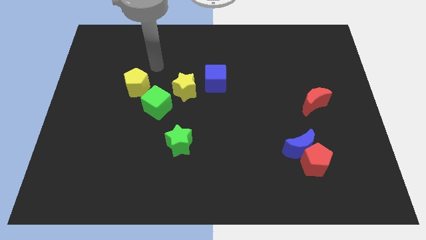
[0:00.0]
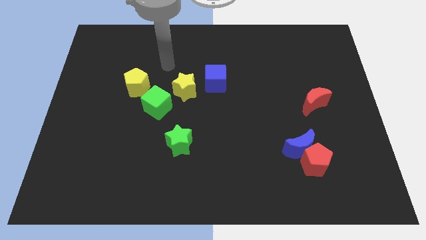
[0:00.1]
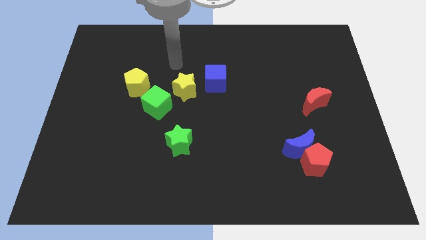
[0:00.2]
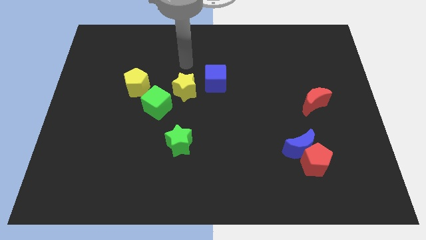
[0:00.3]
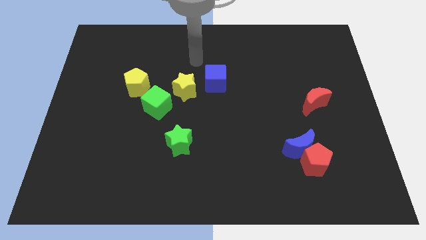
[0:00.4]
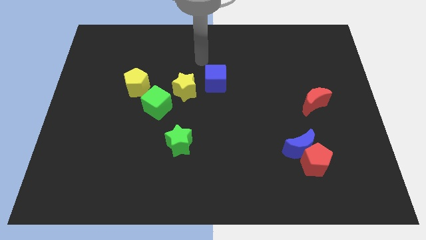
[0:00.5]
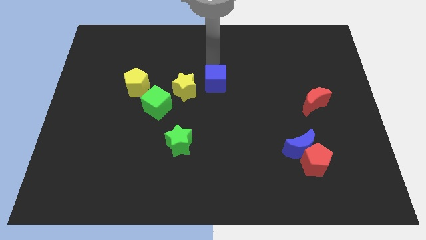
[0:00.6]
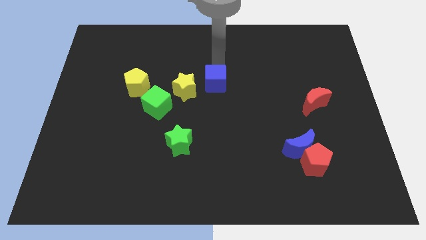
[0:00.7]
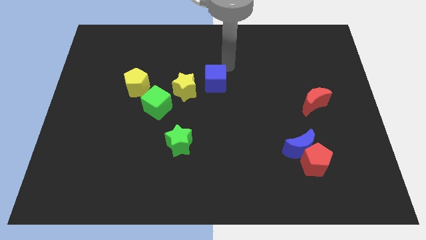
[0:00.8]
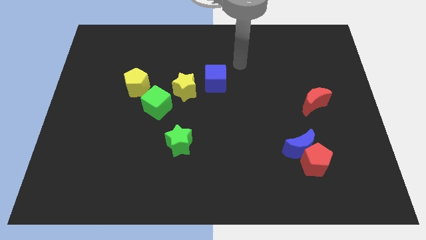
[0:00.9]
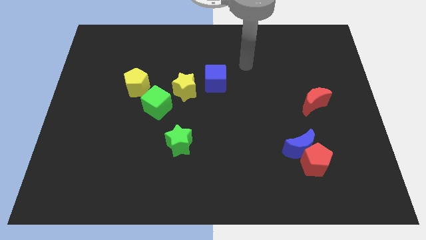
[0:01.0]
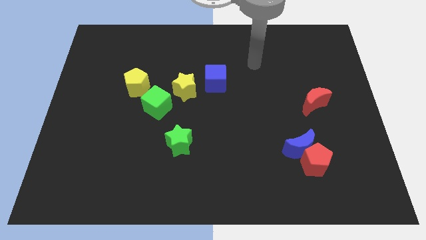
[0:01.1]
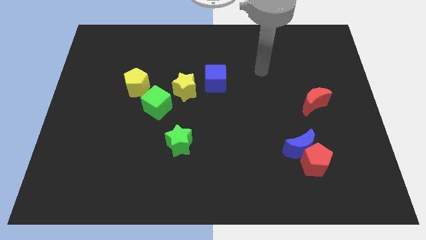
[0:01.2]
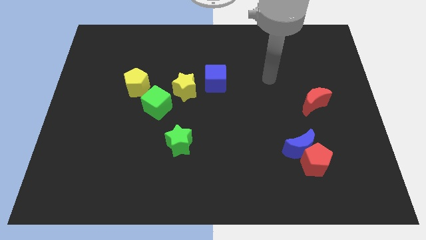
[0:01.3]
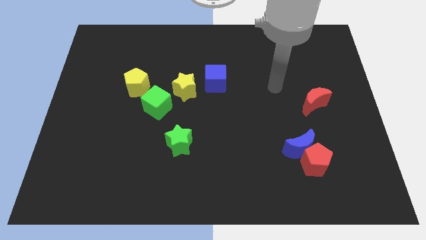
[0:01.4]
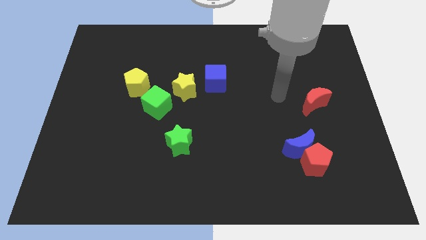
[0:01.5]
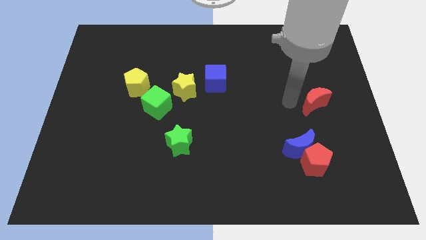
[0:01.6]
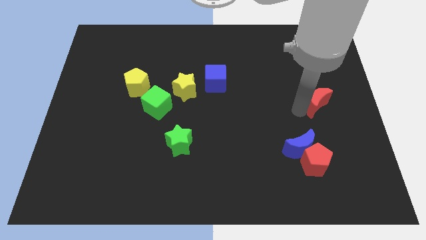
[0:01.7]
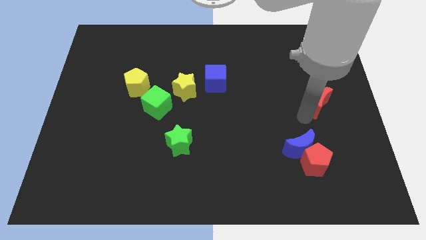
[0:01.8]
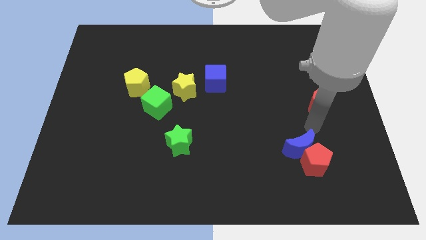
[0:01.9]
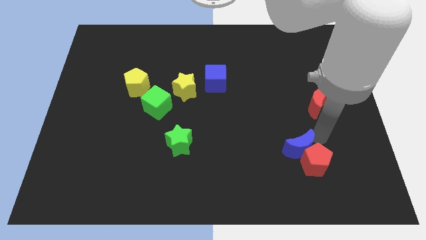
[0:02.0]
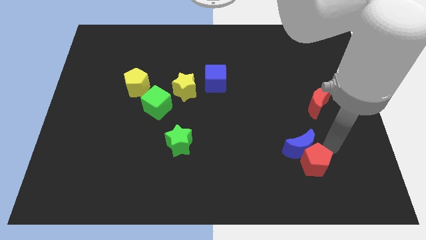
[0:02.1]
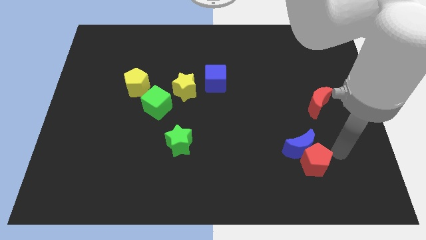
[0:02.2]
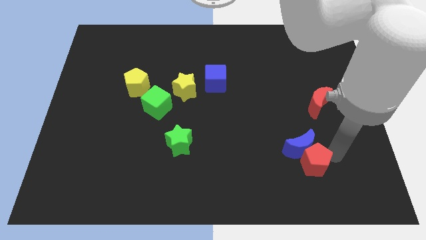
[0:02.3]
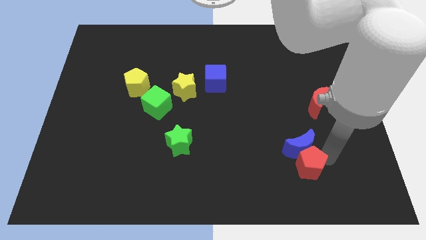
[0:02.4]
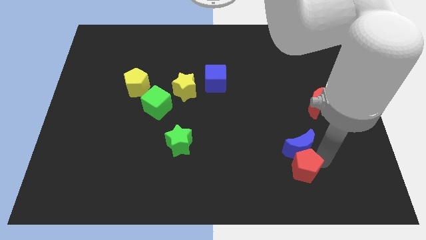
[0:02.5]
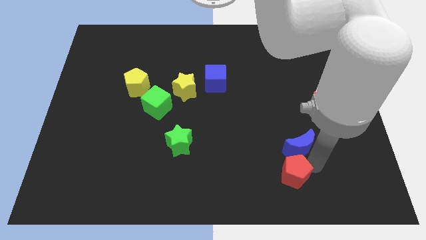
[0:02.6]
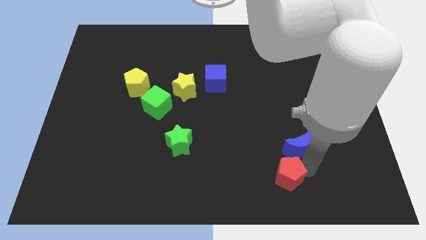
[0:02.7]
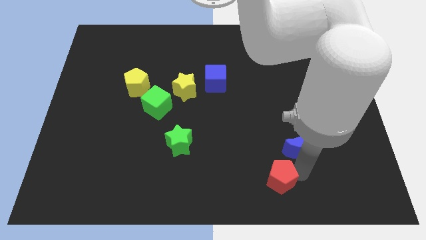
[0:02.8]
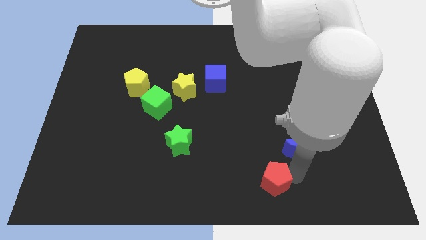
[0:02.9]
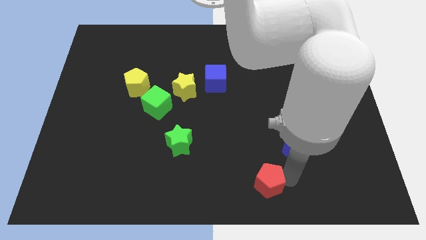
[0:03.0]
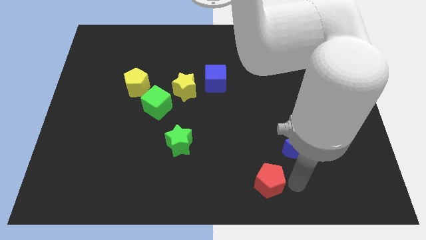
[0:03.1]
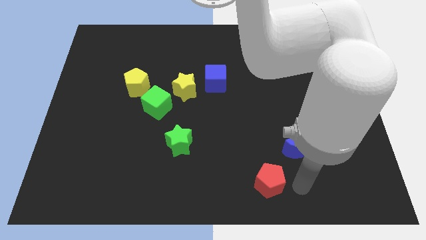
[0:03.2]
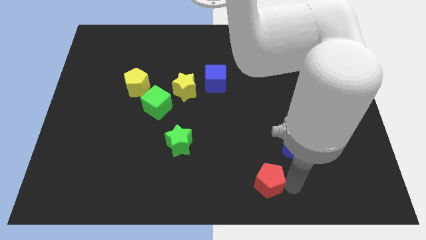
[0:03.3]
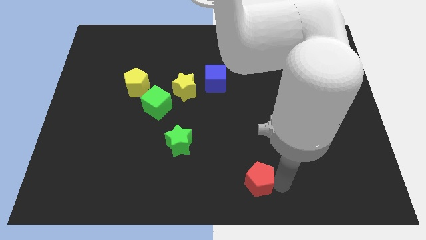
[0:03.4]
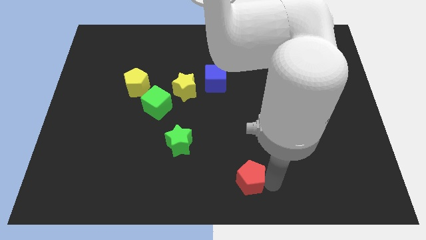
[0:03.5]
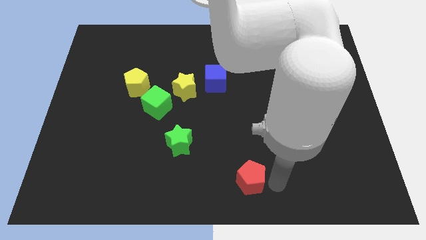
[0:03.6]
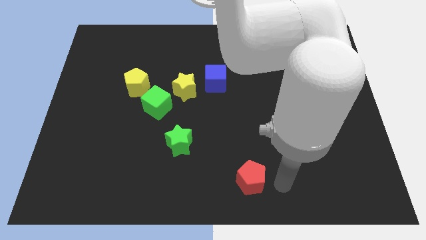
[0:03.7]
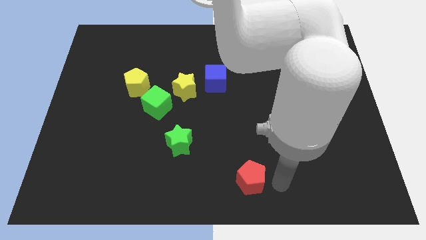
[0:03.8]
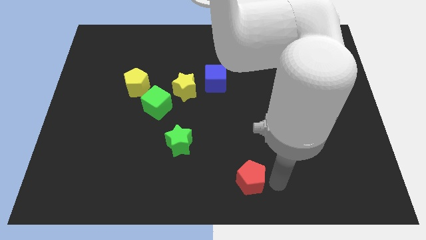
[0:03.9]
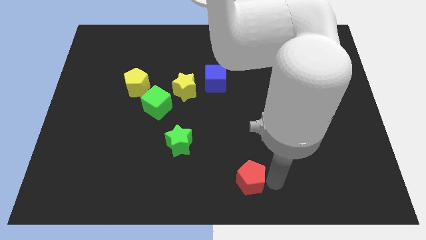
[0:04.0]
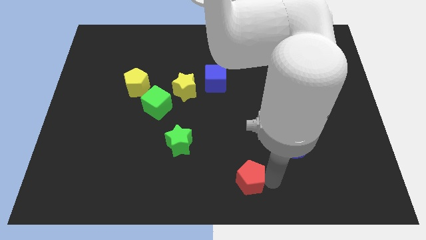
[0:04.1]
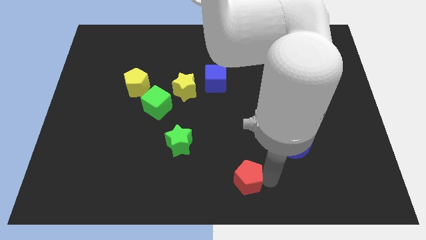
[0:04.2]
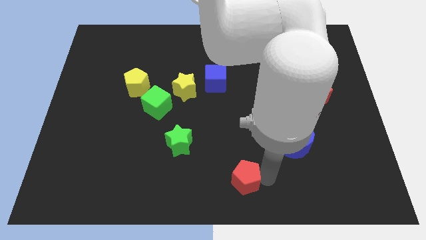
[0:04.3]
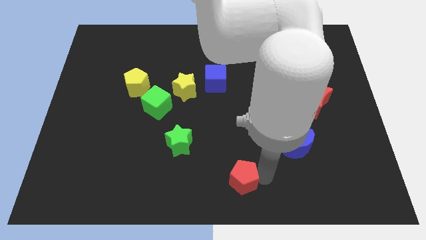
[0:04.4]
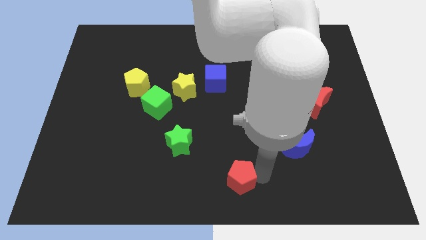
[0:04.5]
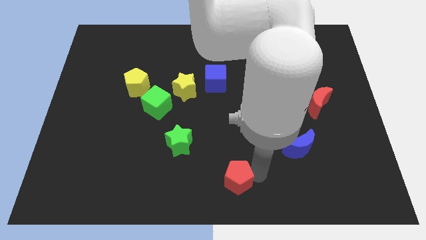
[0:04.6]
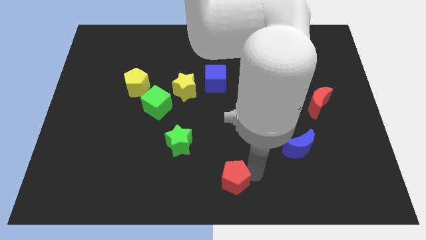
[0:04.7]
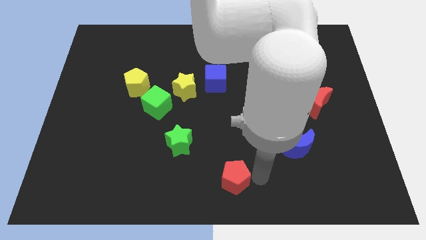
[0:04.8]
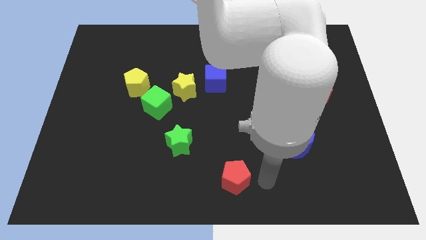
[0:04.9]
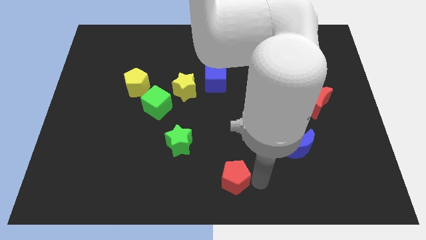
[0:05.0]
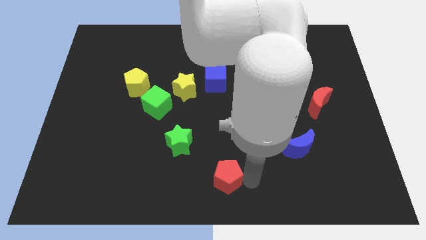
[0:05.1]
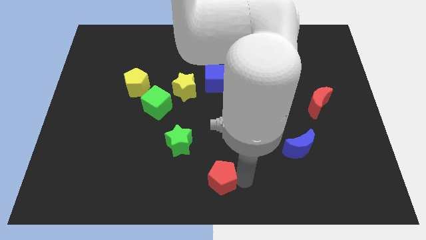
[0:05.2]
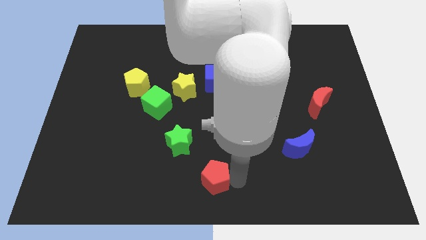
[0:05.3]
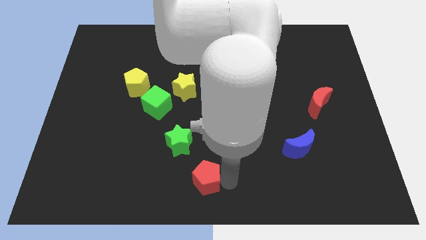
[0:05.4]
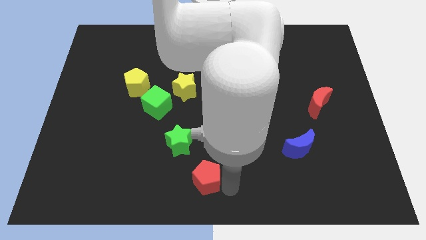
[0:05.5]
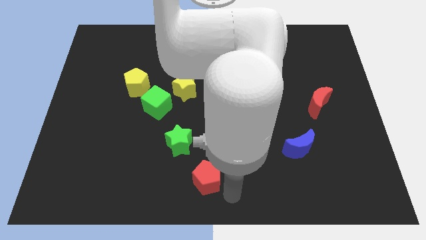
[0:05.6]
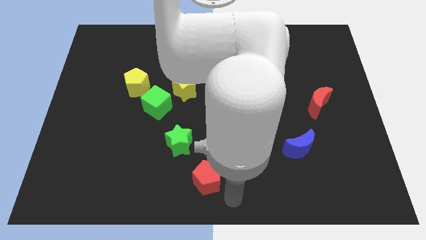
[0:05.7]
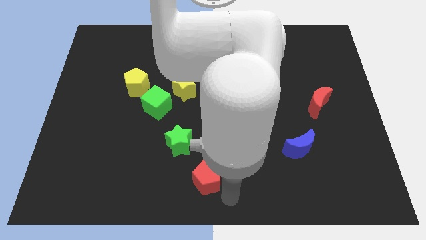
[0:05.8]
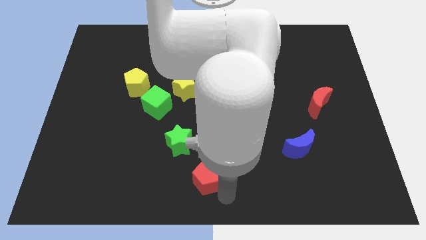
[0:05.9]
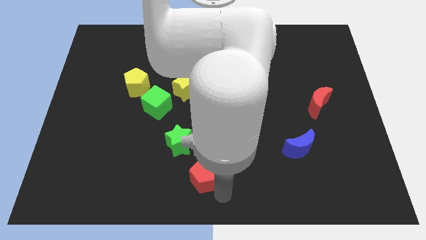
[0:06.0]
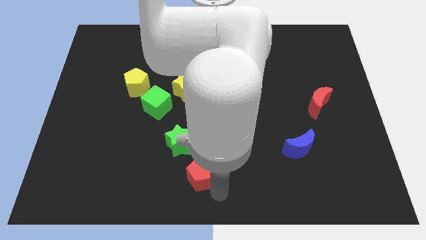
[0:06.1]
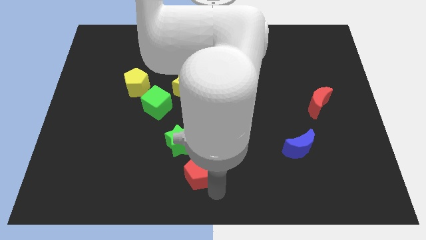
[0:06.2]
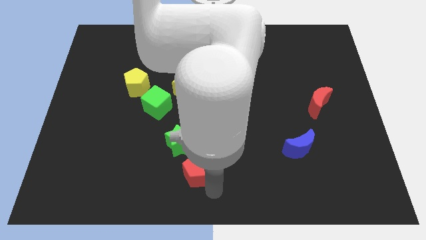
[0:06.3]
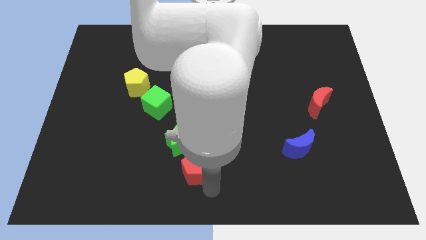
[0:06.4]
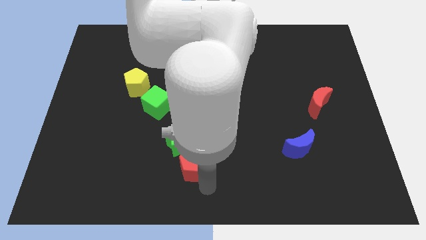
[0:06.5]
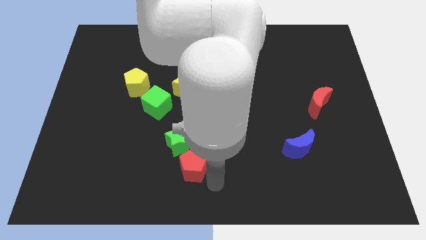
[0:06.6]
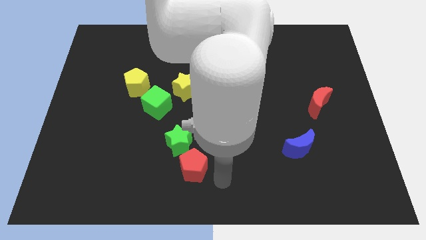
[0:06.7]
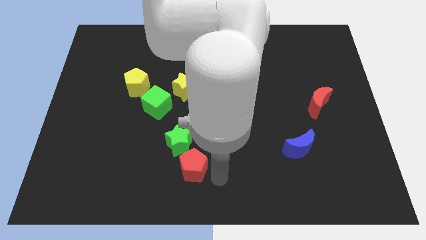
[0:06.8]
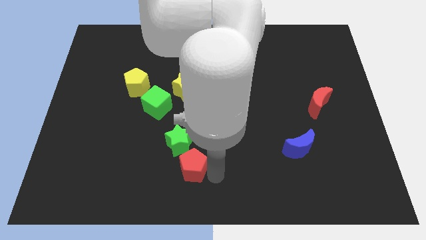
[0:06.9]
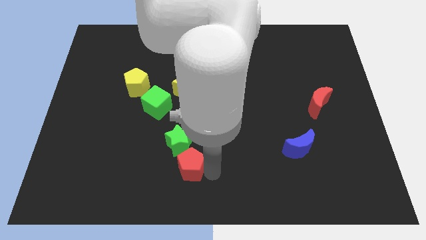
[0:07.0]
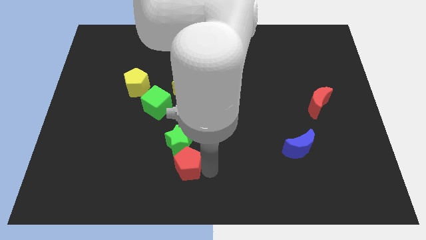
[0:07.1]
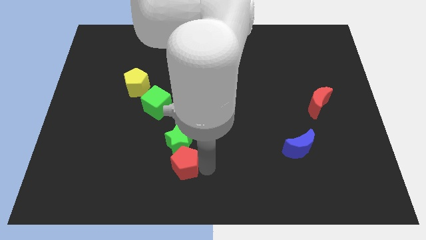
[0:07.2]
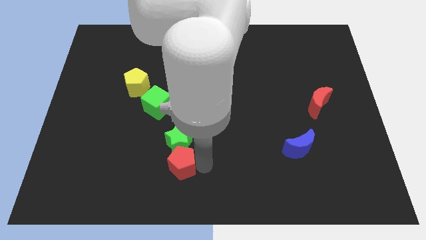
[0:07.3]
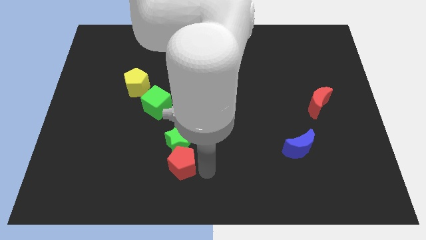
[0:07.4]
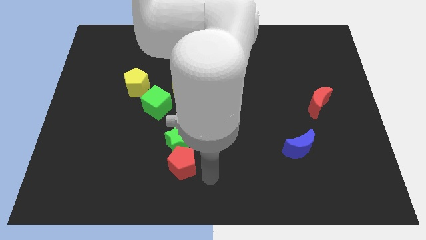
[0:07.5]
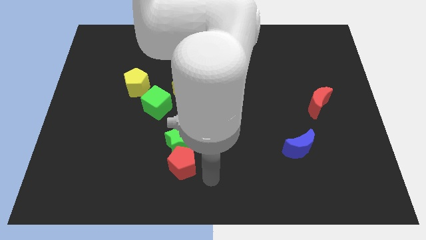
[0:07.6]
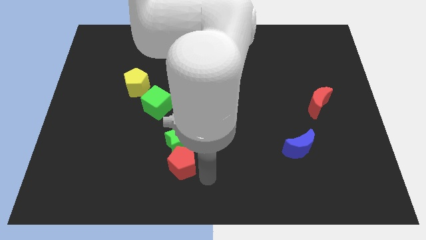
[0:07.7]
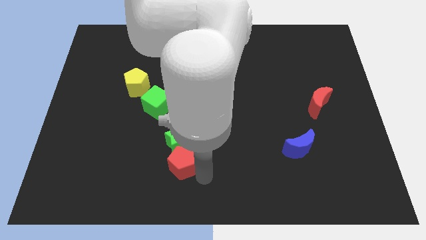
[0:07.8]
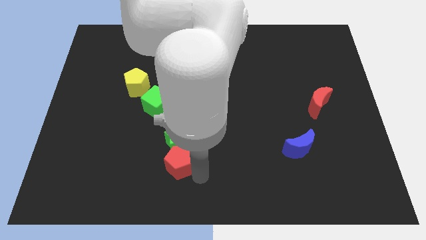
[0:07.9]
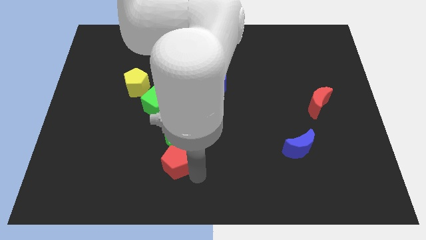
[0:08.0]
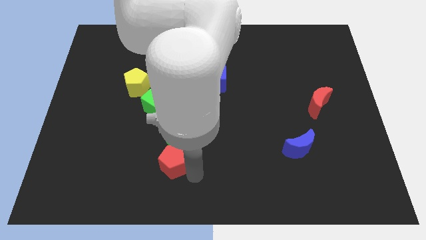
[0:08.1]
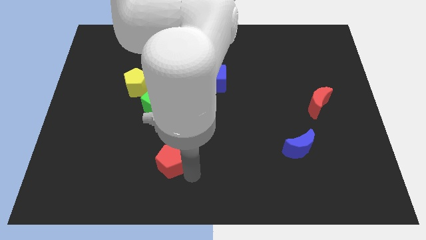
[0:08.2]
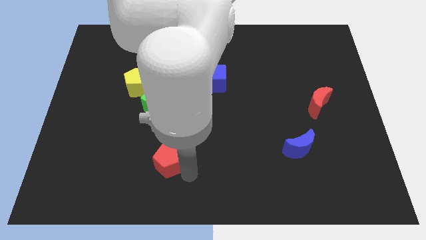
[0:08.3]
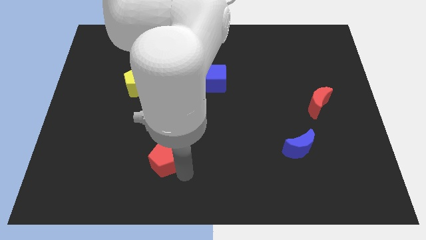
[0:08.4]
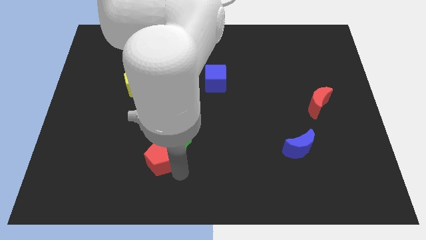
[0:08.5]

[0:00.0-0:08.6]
slide the red pentagon just left of the green star
